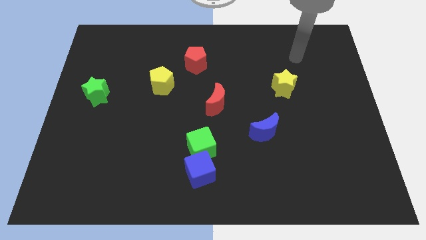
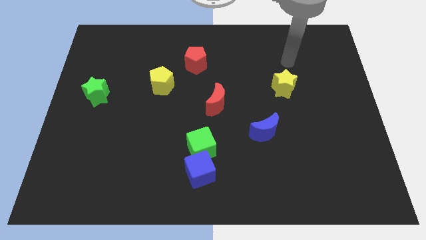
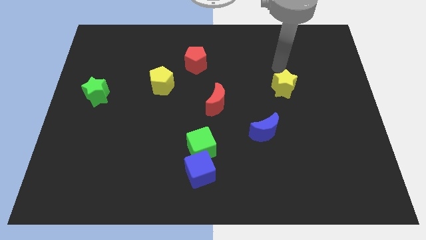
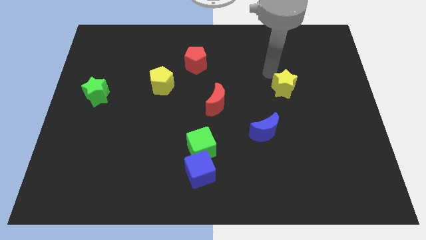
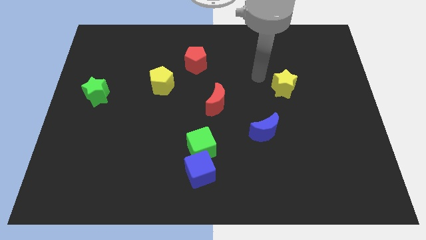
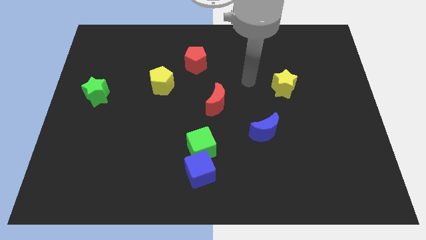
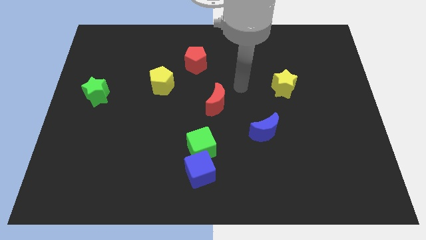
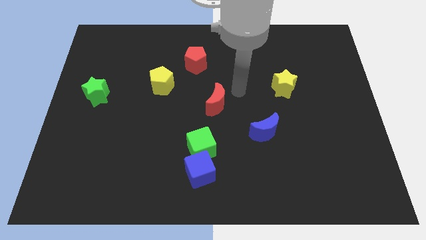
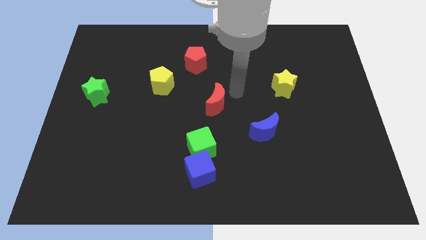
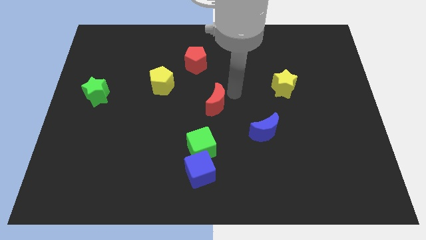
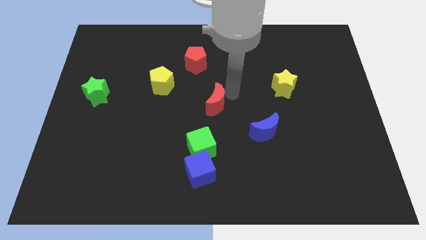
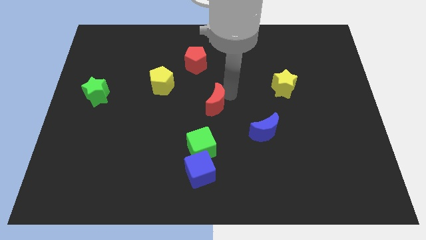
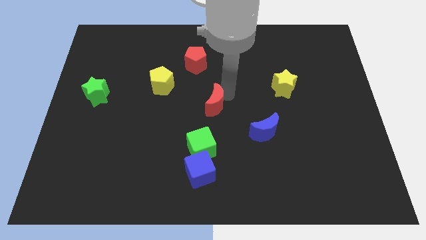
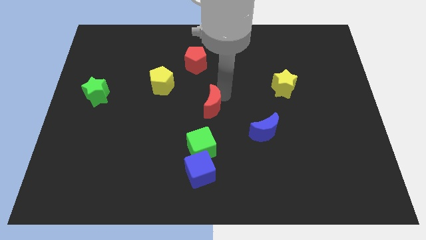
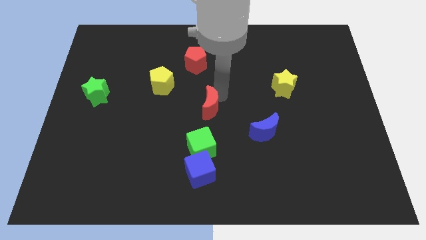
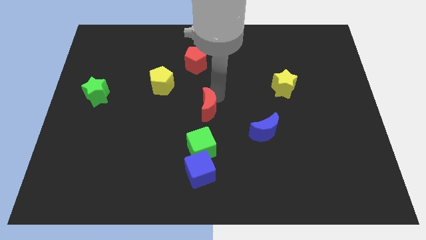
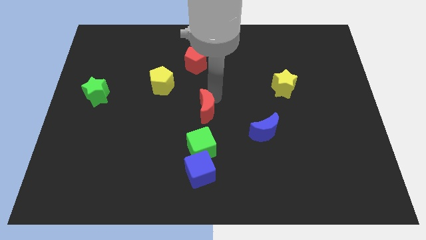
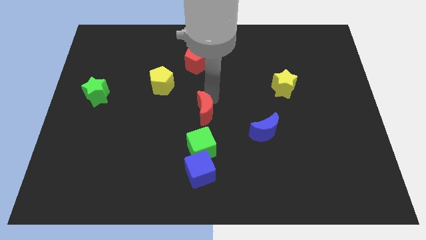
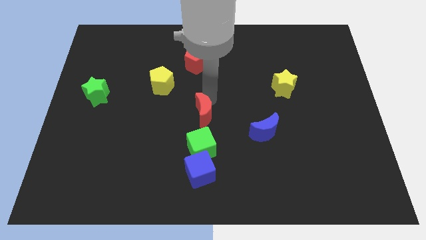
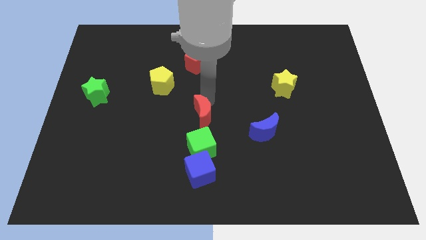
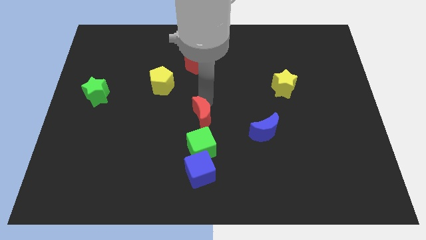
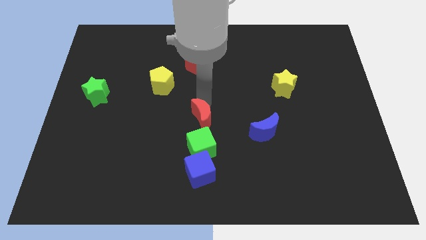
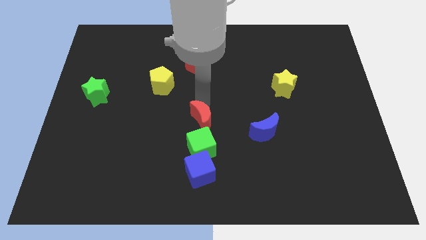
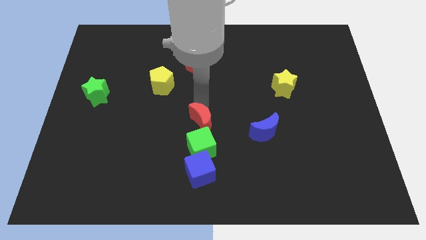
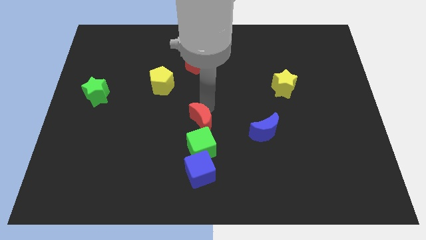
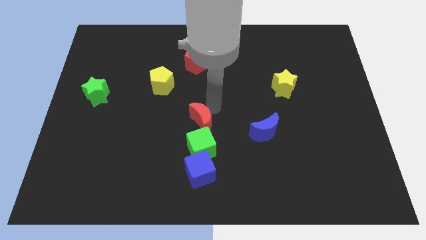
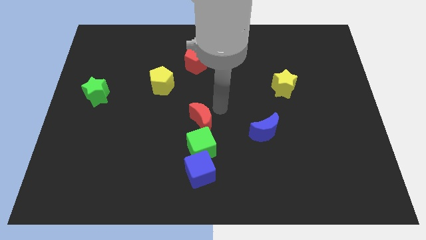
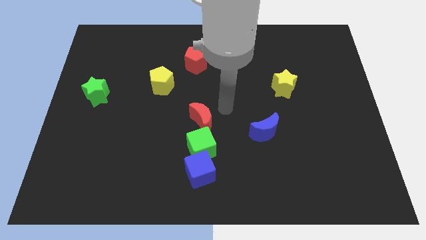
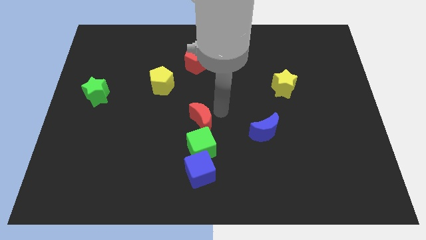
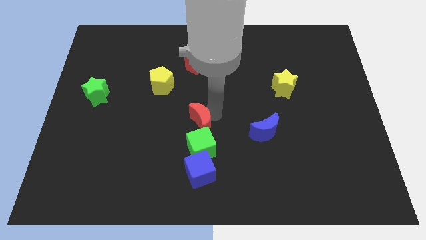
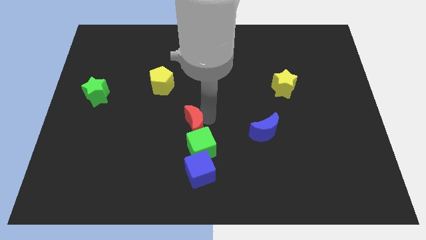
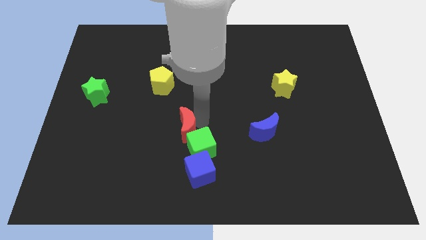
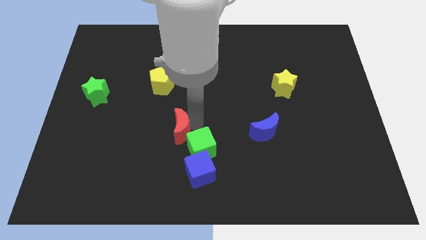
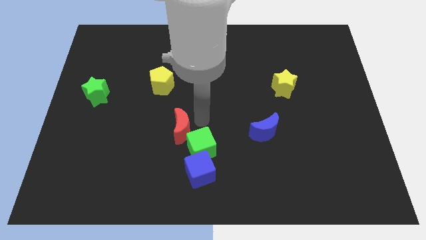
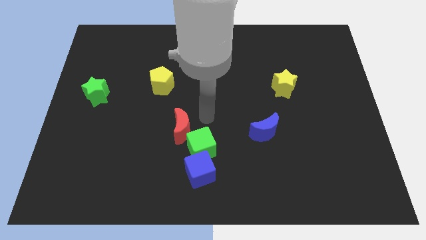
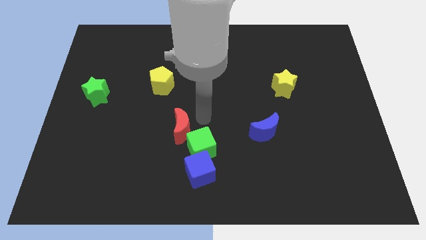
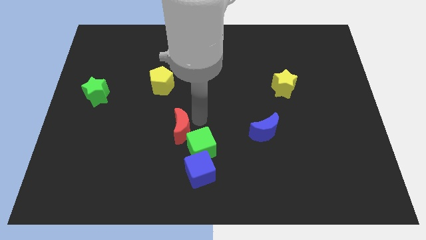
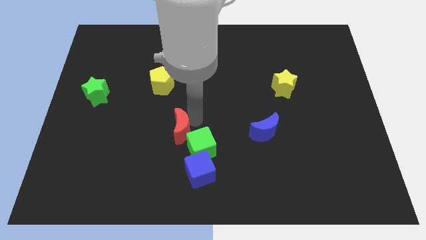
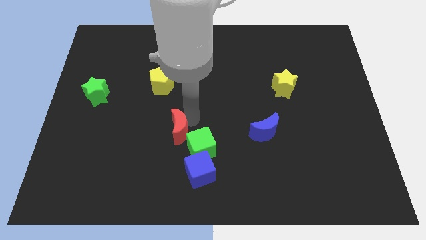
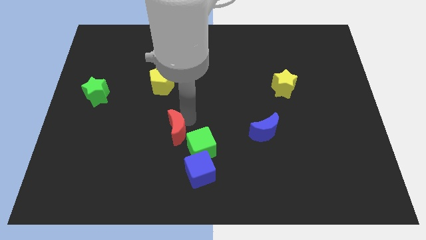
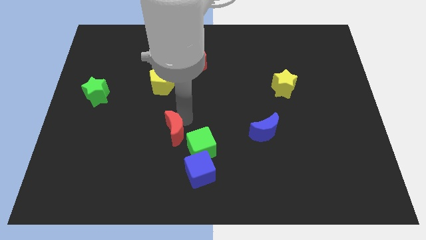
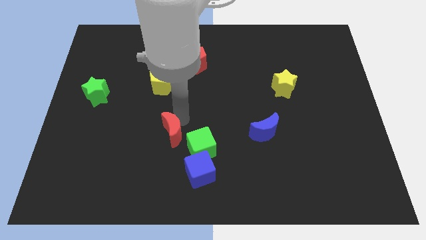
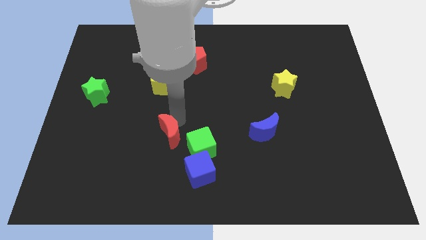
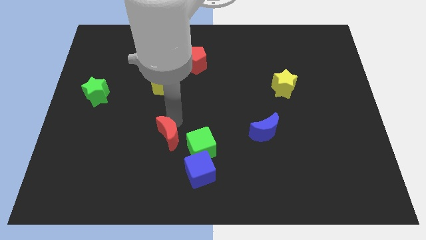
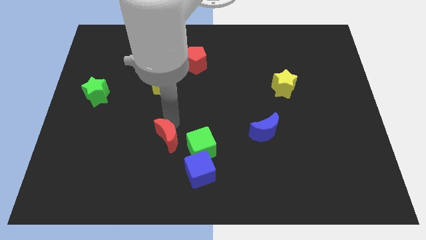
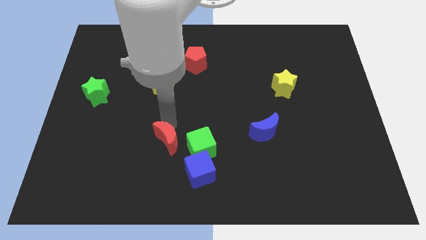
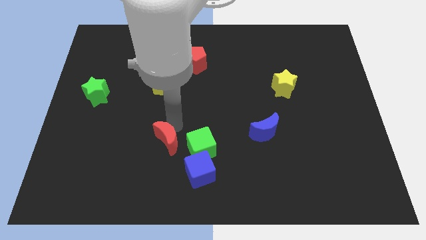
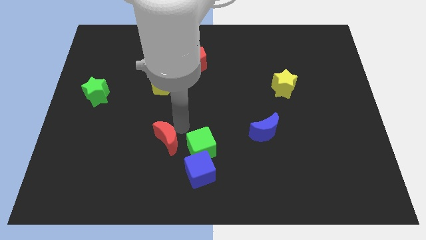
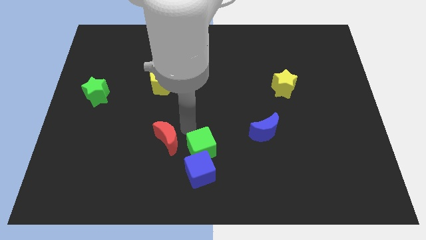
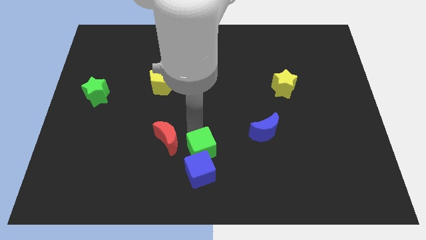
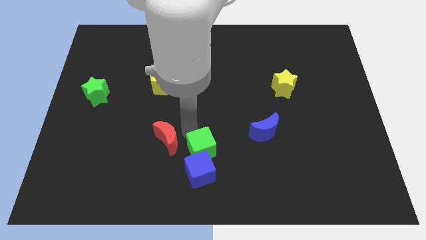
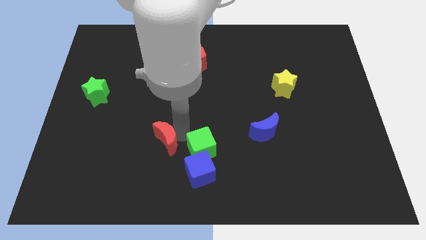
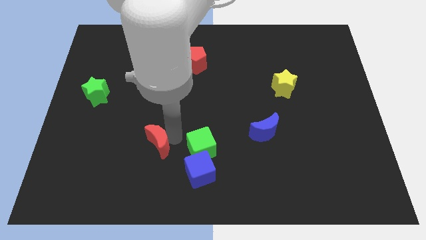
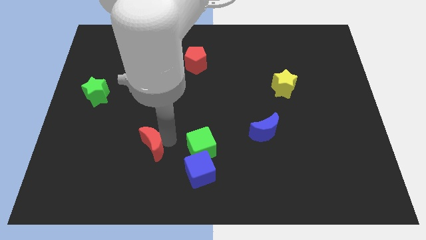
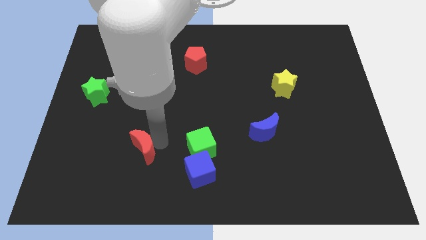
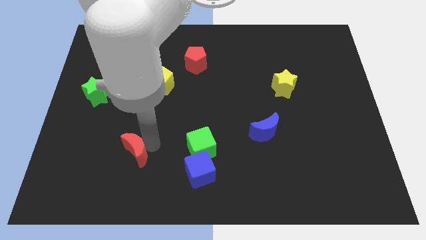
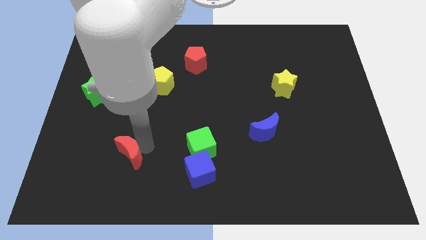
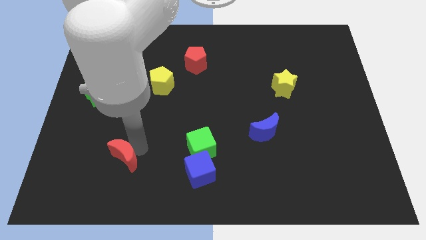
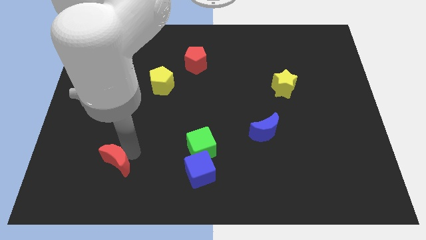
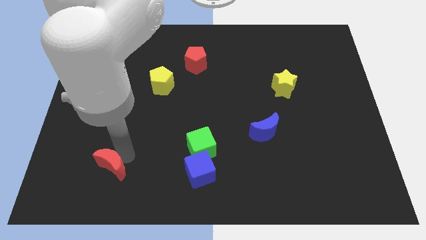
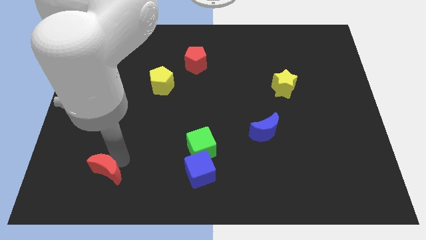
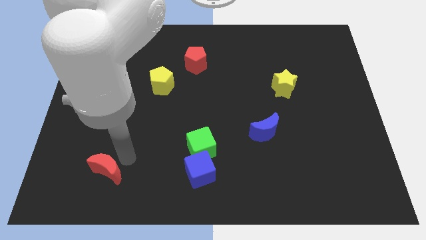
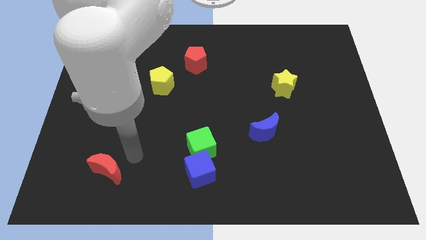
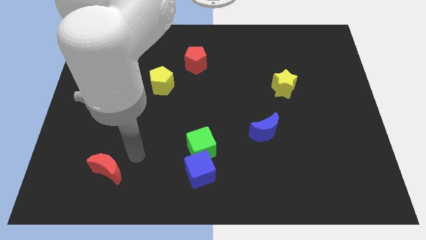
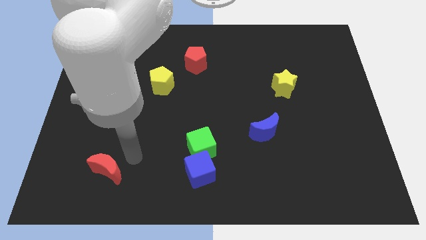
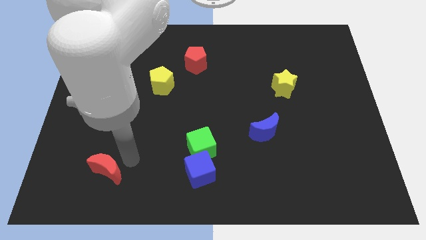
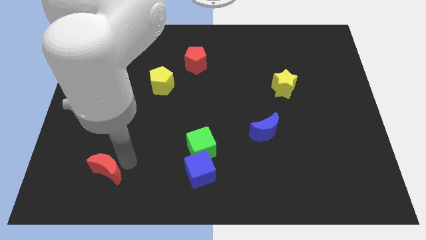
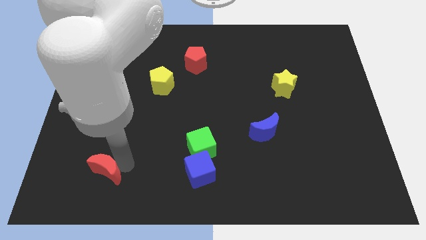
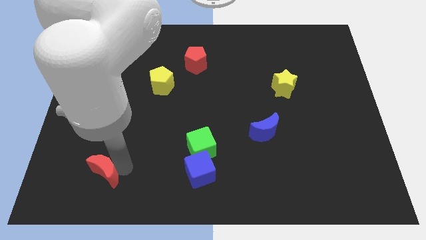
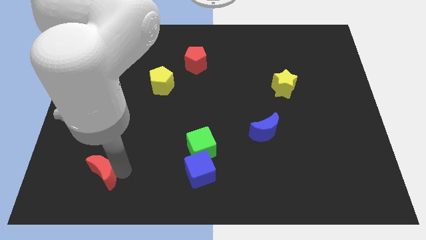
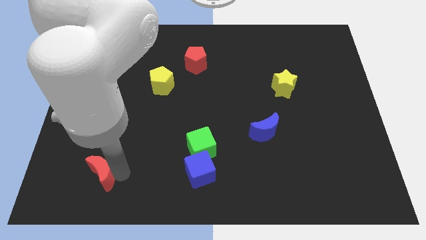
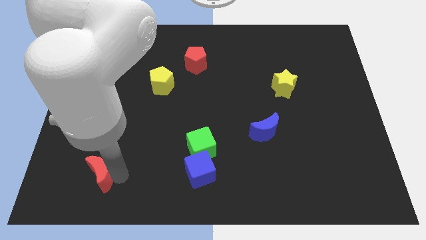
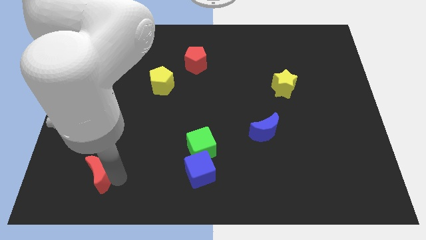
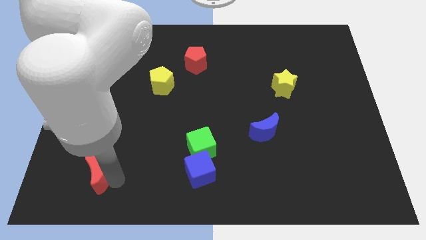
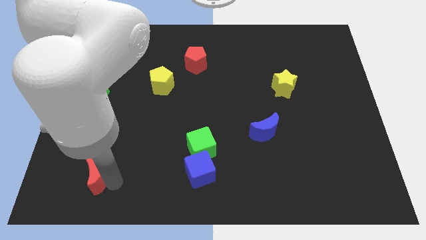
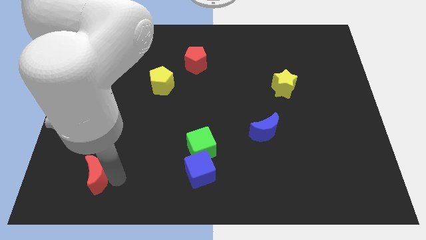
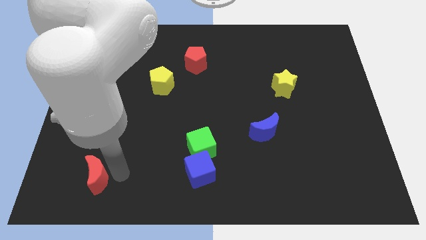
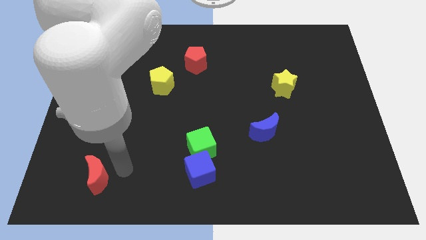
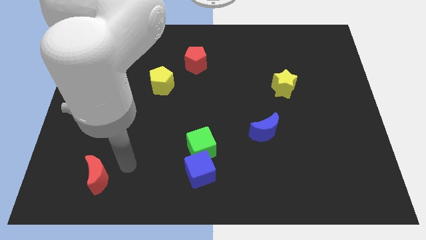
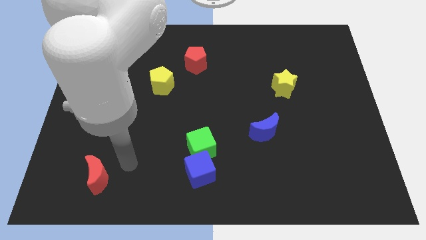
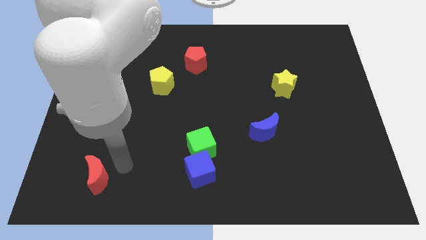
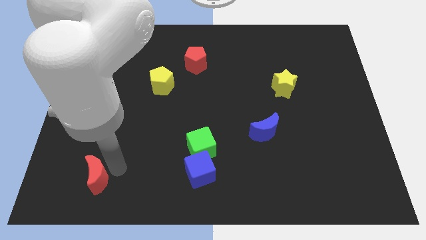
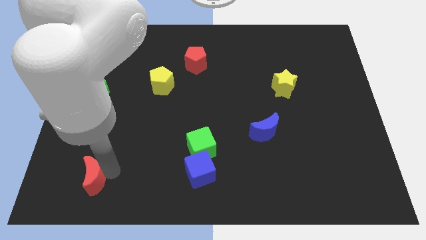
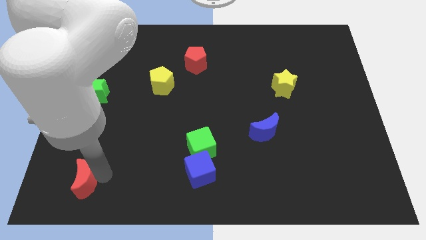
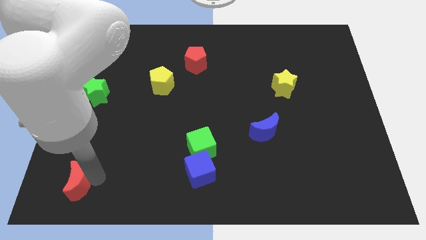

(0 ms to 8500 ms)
move the red moon to the lower left corner
